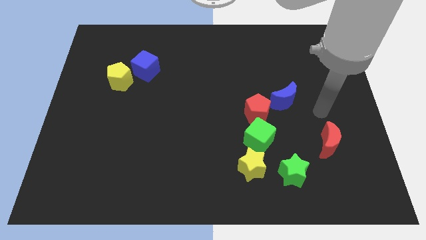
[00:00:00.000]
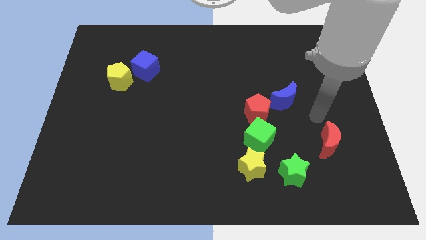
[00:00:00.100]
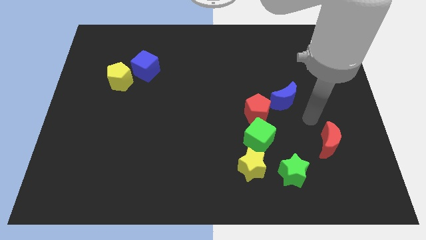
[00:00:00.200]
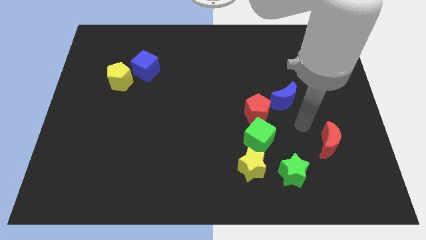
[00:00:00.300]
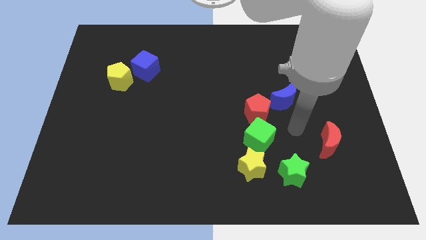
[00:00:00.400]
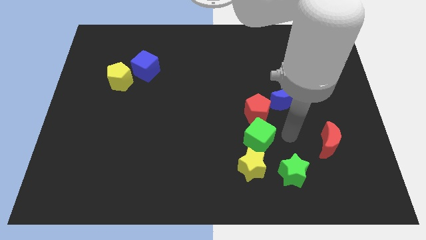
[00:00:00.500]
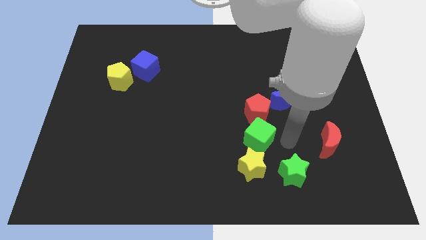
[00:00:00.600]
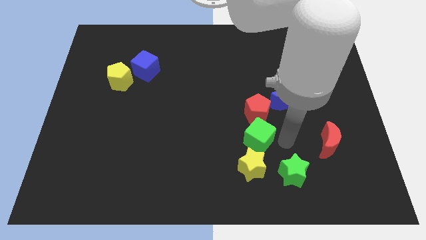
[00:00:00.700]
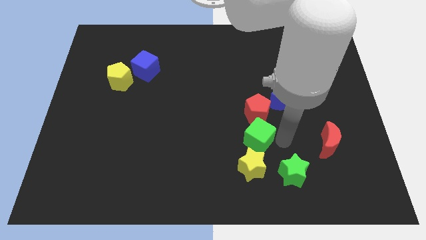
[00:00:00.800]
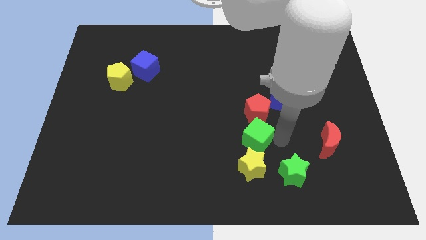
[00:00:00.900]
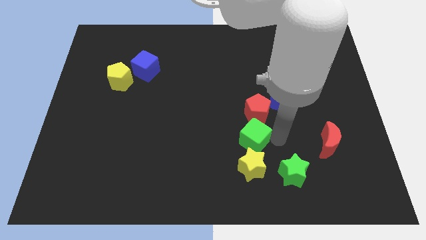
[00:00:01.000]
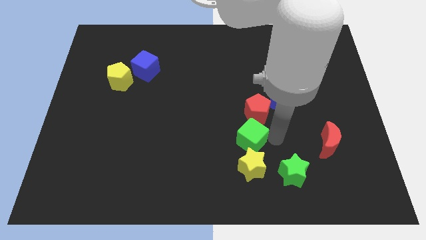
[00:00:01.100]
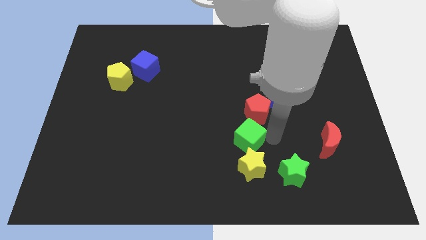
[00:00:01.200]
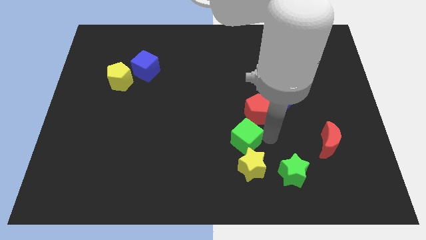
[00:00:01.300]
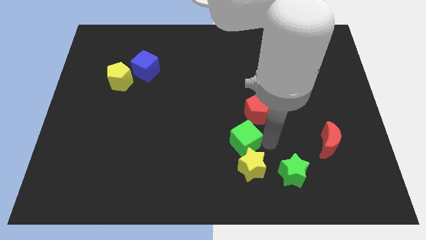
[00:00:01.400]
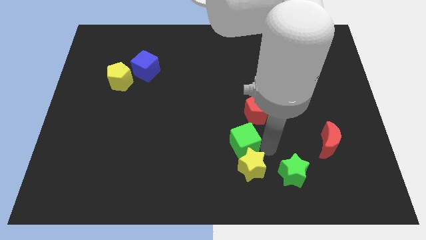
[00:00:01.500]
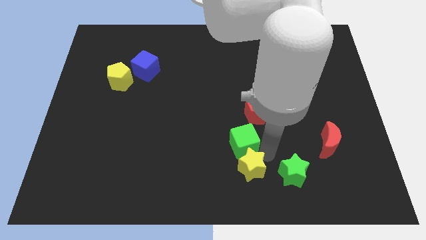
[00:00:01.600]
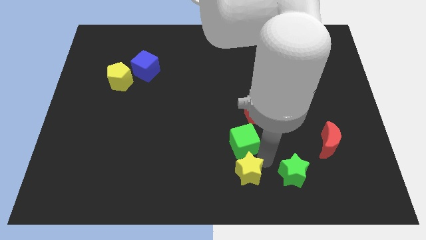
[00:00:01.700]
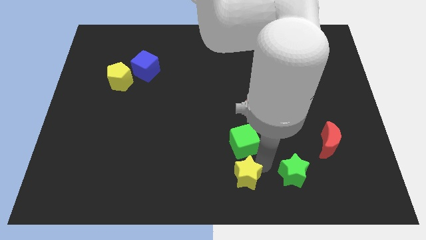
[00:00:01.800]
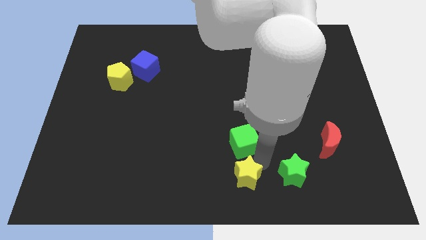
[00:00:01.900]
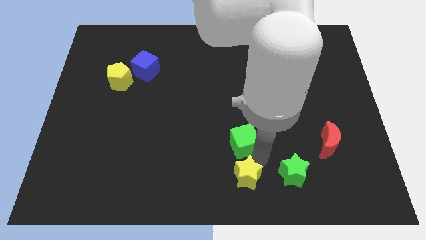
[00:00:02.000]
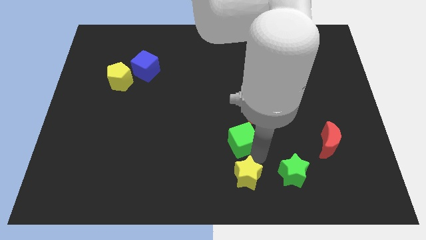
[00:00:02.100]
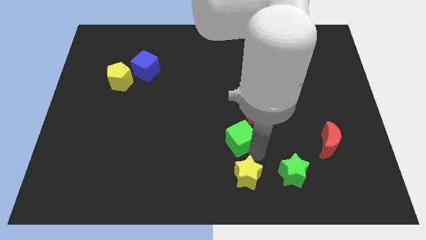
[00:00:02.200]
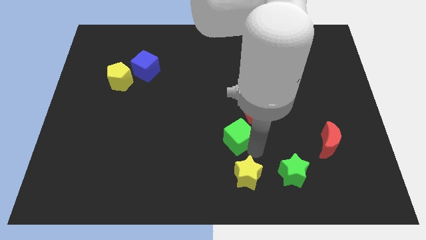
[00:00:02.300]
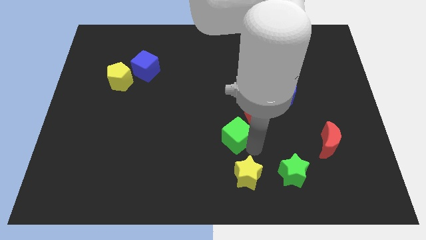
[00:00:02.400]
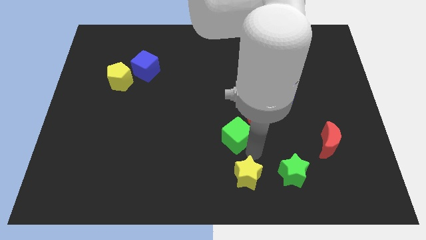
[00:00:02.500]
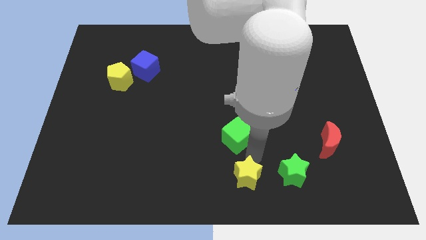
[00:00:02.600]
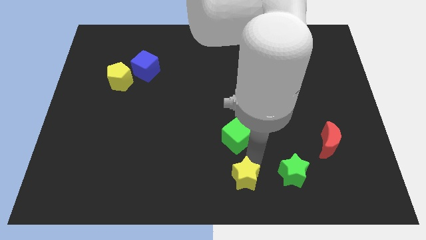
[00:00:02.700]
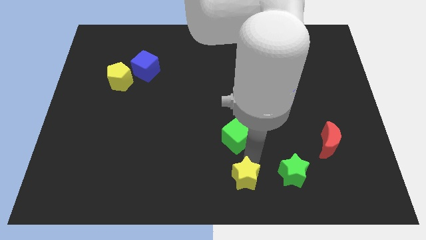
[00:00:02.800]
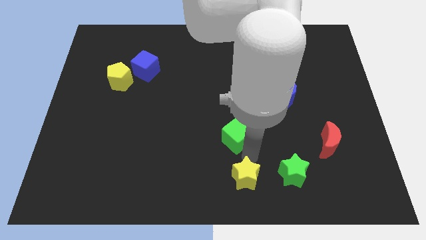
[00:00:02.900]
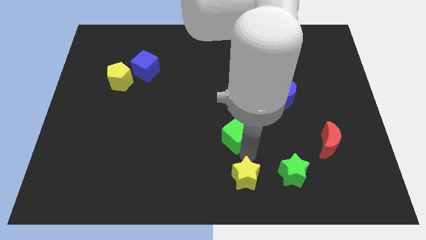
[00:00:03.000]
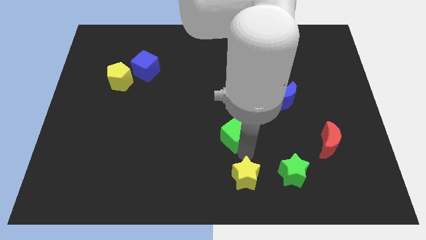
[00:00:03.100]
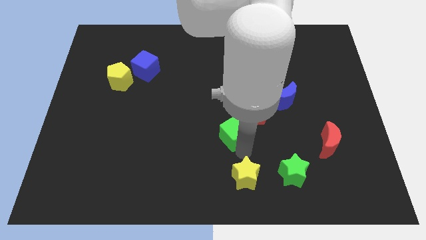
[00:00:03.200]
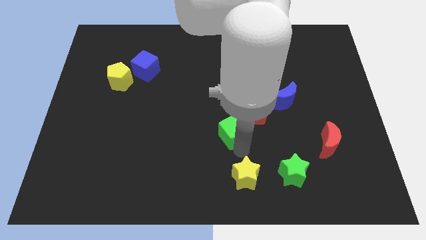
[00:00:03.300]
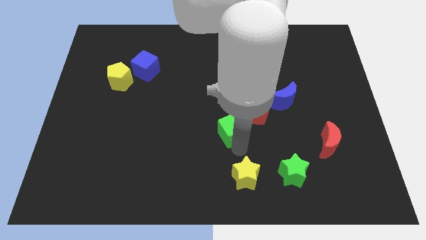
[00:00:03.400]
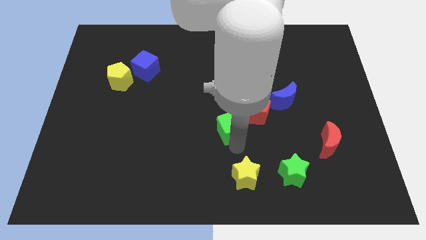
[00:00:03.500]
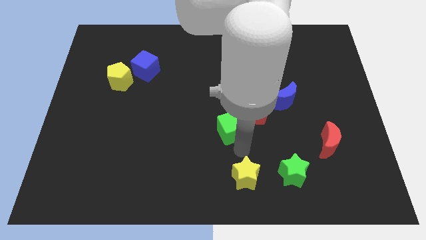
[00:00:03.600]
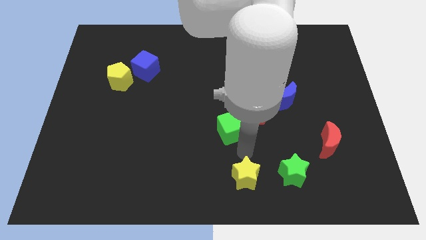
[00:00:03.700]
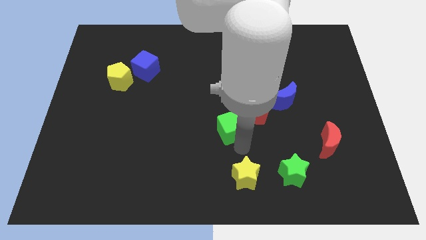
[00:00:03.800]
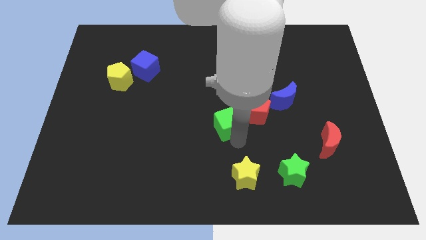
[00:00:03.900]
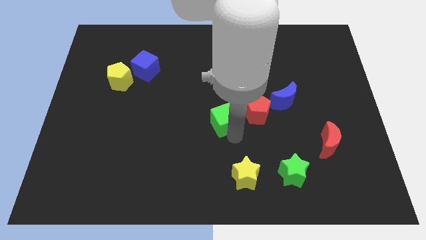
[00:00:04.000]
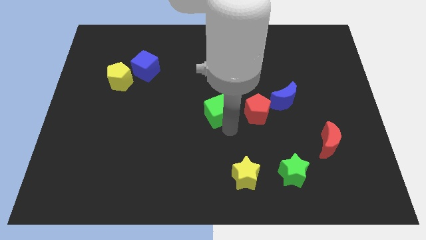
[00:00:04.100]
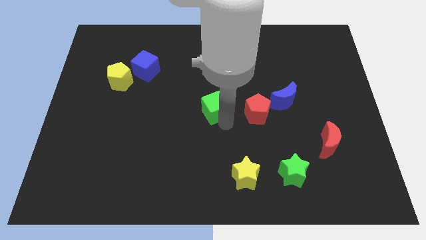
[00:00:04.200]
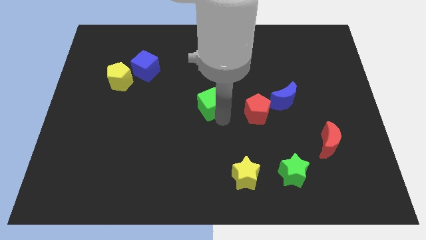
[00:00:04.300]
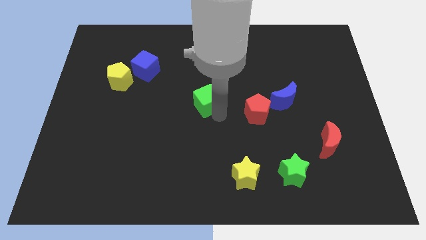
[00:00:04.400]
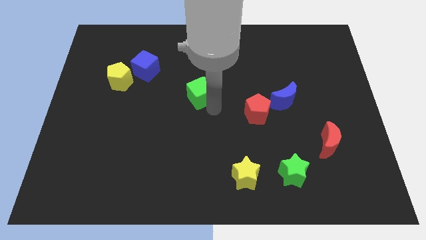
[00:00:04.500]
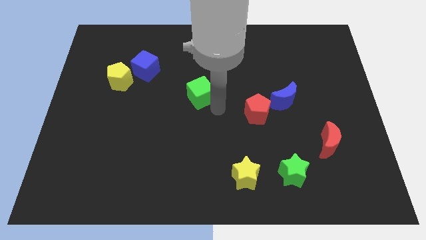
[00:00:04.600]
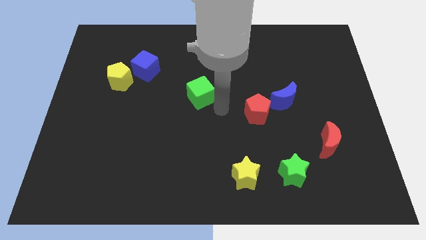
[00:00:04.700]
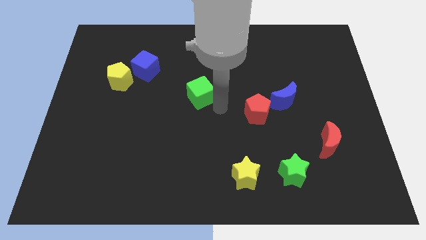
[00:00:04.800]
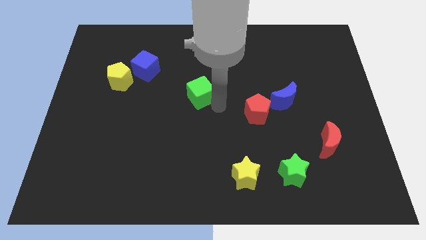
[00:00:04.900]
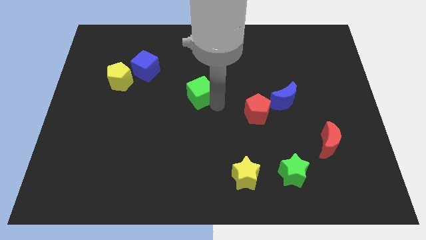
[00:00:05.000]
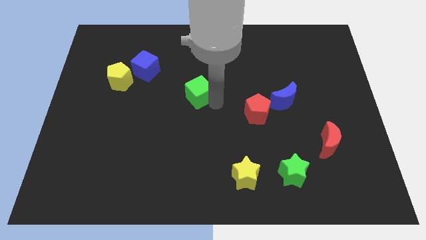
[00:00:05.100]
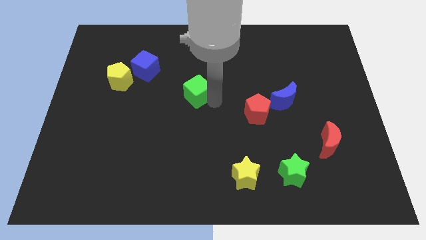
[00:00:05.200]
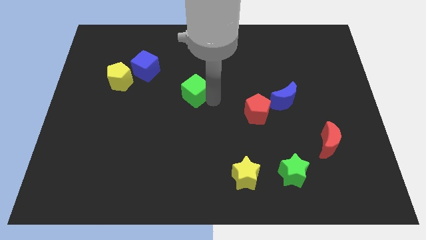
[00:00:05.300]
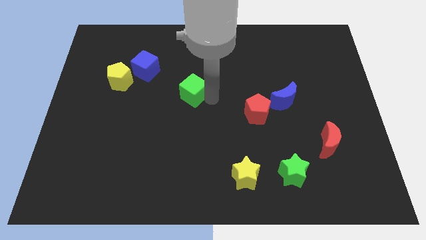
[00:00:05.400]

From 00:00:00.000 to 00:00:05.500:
push the green cube up and to the left

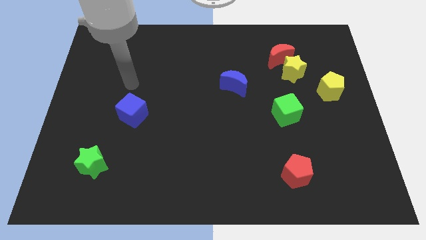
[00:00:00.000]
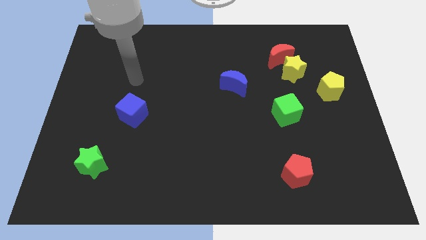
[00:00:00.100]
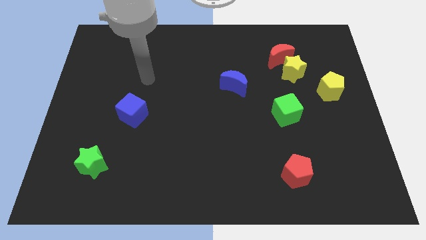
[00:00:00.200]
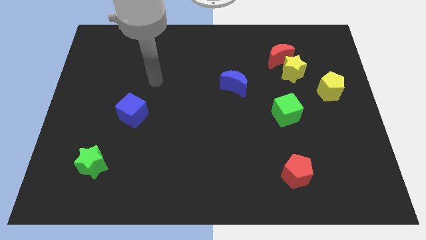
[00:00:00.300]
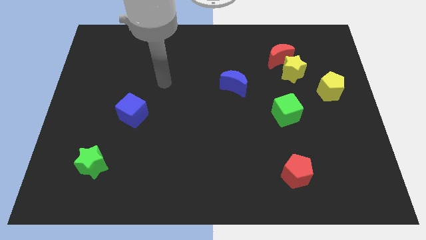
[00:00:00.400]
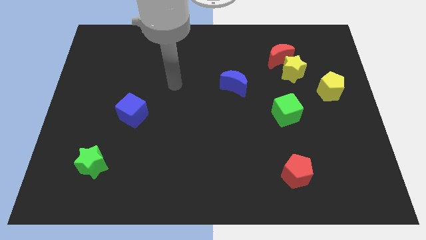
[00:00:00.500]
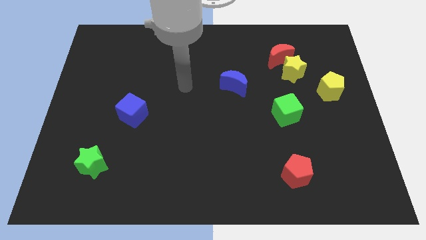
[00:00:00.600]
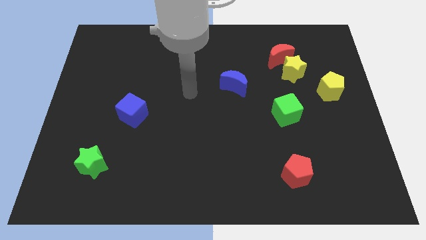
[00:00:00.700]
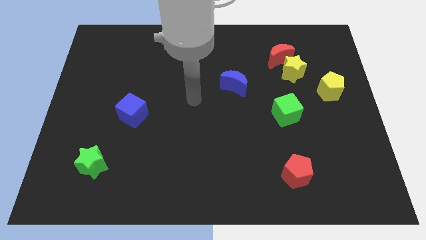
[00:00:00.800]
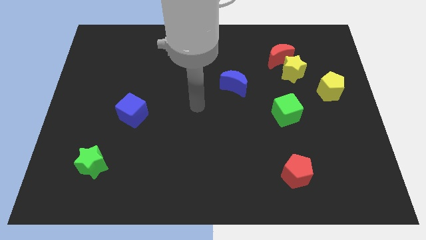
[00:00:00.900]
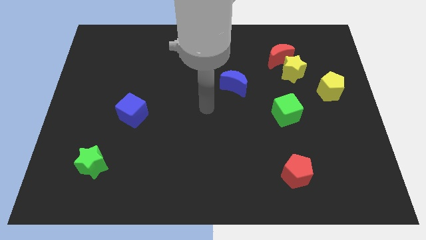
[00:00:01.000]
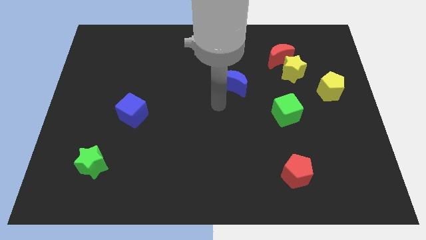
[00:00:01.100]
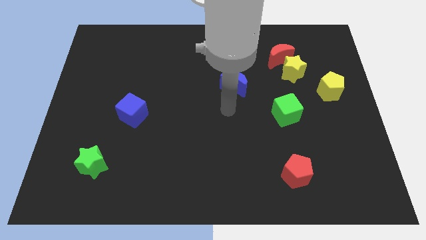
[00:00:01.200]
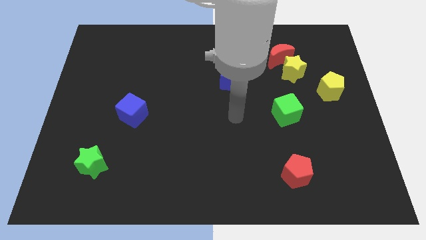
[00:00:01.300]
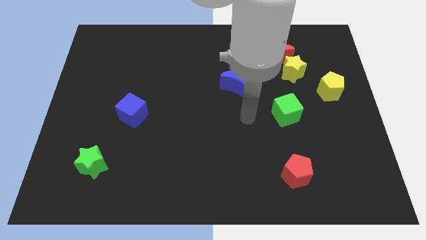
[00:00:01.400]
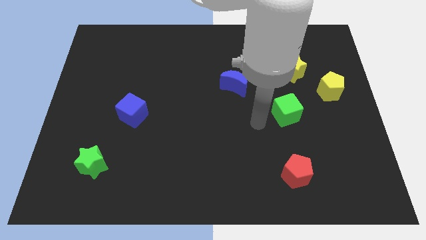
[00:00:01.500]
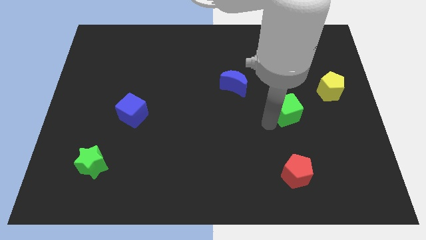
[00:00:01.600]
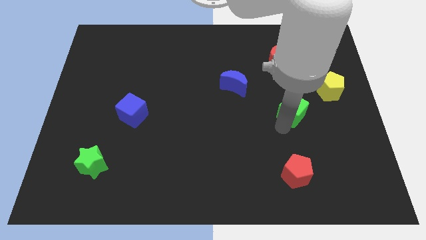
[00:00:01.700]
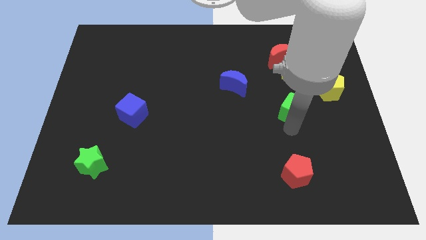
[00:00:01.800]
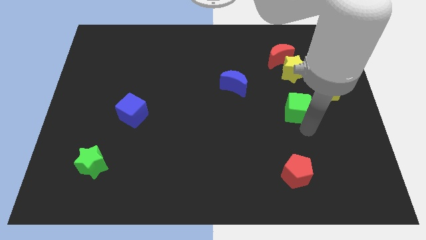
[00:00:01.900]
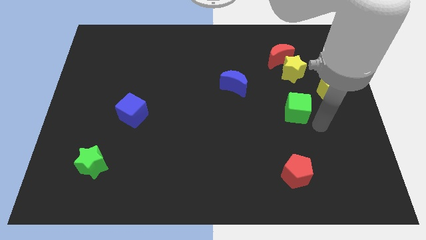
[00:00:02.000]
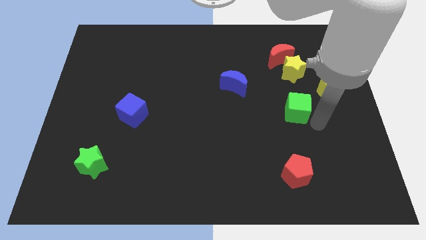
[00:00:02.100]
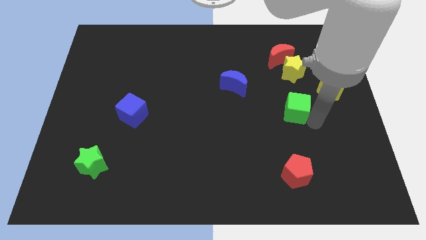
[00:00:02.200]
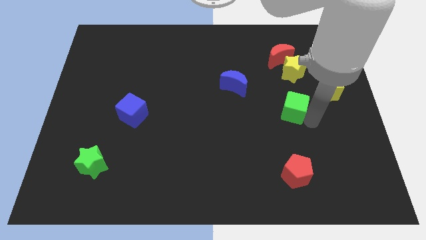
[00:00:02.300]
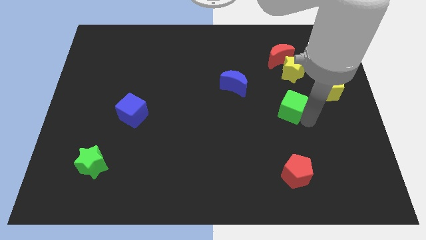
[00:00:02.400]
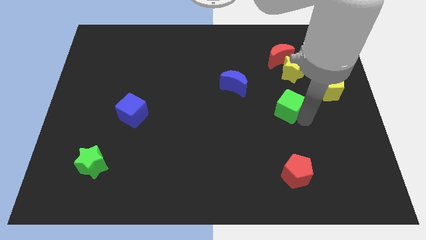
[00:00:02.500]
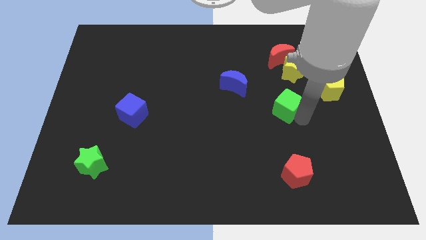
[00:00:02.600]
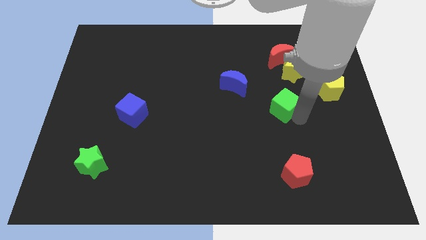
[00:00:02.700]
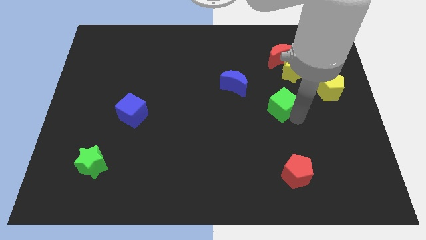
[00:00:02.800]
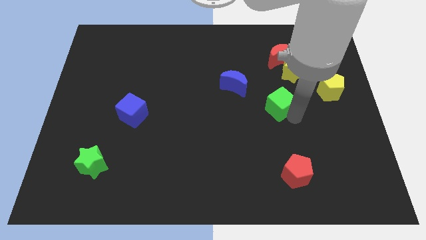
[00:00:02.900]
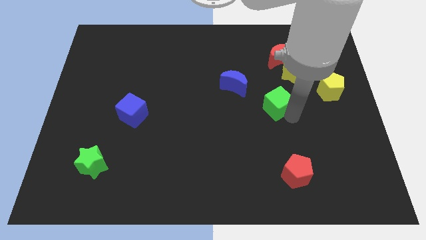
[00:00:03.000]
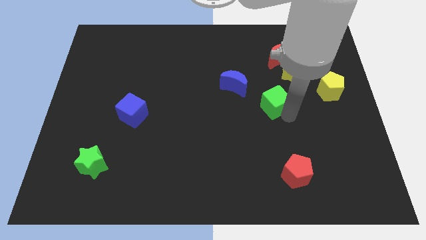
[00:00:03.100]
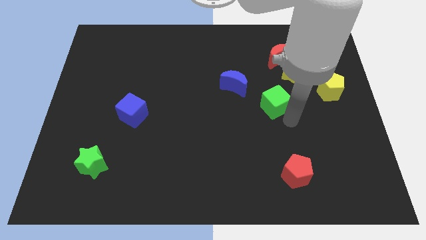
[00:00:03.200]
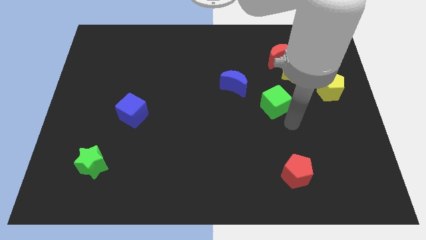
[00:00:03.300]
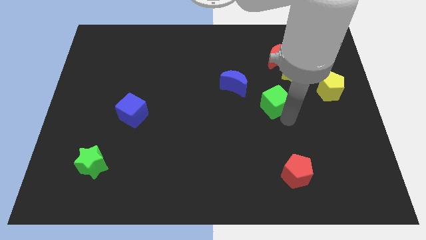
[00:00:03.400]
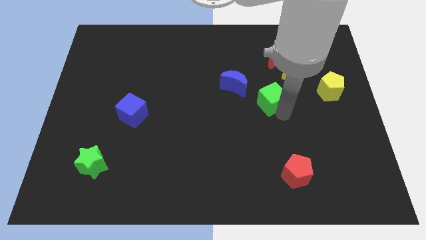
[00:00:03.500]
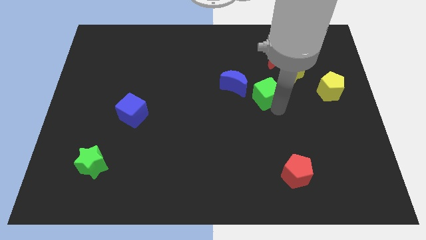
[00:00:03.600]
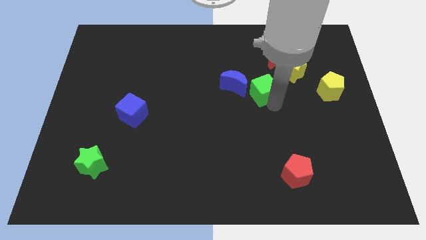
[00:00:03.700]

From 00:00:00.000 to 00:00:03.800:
slide the green cube somewhat up and to the left
